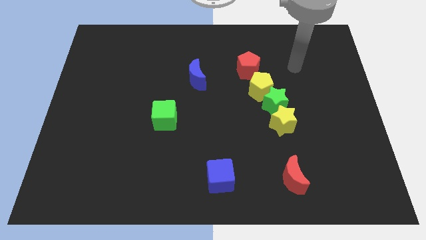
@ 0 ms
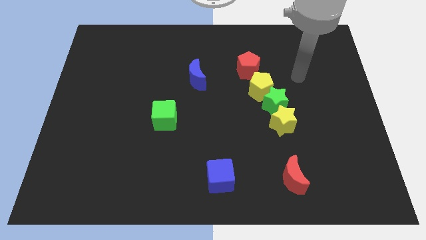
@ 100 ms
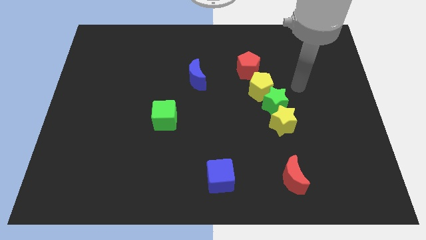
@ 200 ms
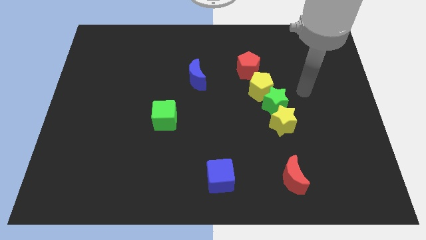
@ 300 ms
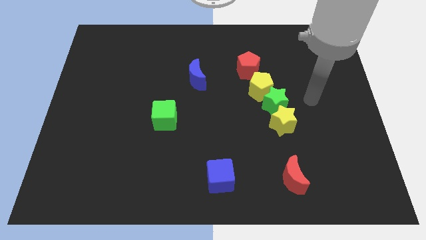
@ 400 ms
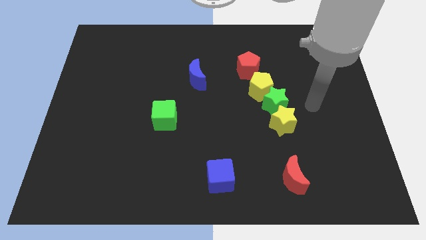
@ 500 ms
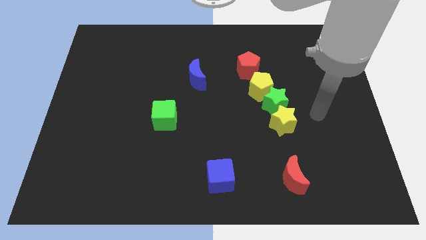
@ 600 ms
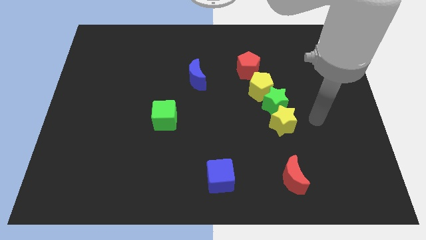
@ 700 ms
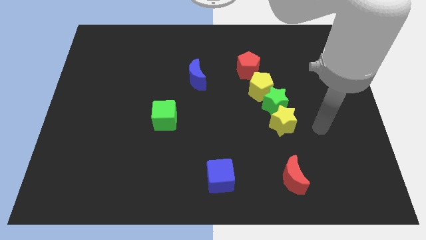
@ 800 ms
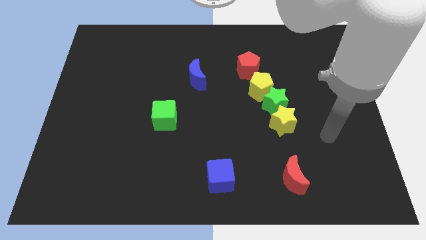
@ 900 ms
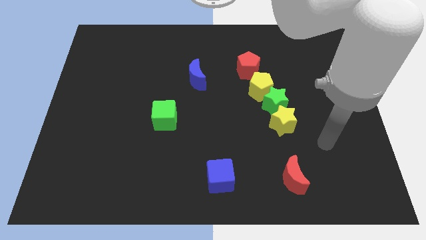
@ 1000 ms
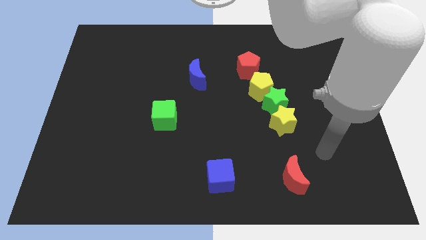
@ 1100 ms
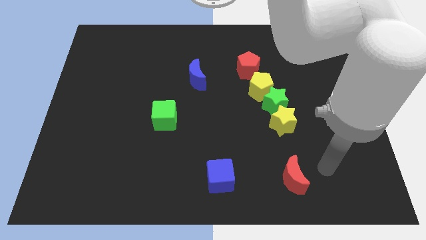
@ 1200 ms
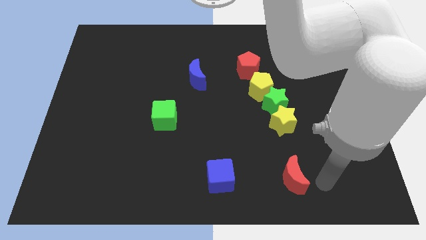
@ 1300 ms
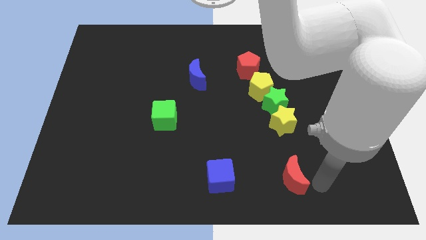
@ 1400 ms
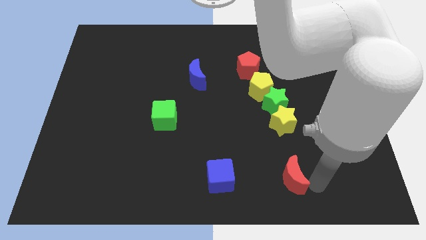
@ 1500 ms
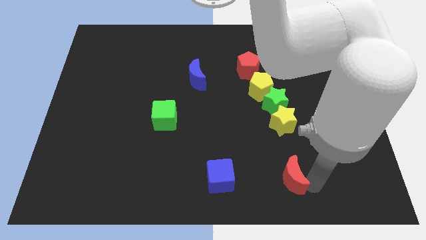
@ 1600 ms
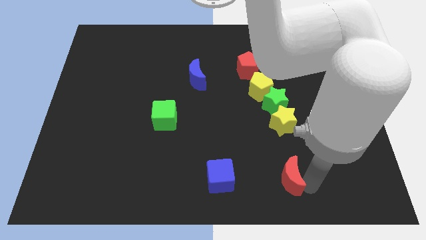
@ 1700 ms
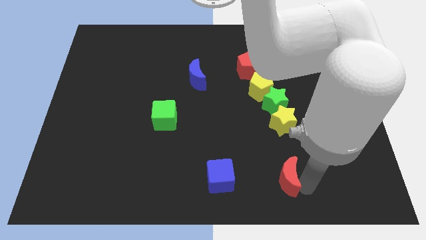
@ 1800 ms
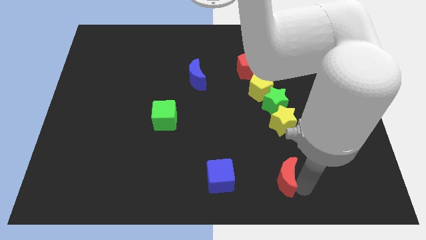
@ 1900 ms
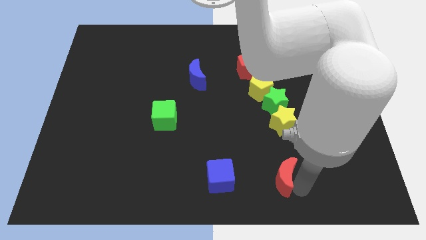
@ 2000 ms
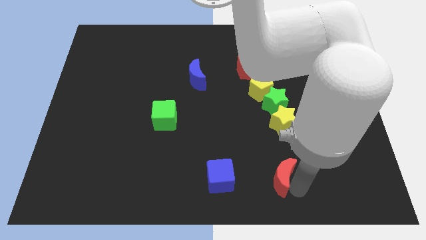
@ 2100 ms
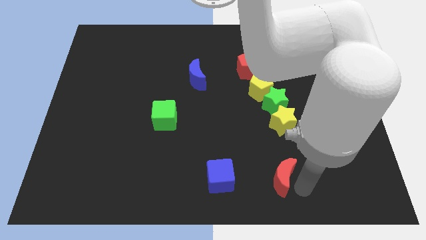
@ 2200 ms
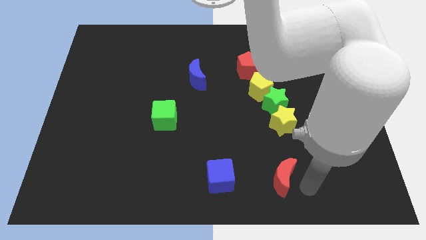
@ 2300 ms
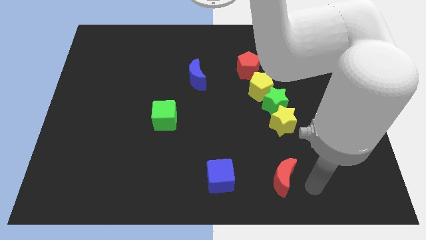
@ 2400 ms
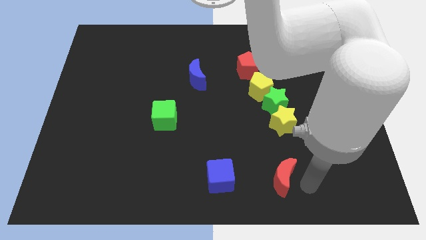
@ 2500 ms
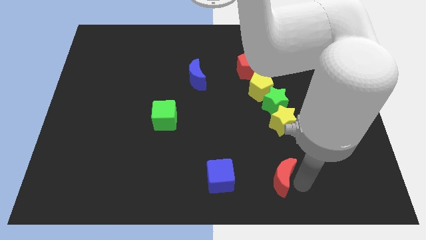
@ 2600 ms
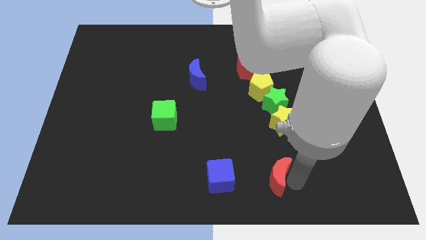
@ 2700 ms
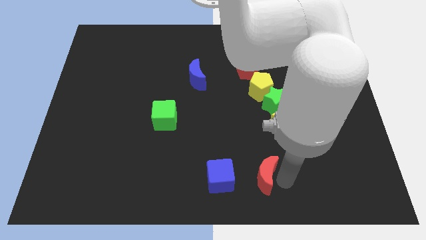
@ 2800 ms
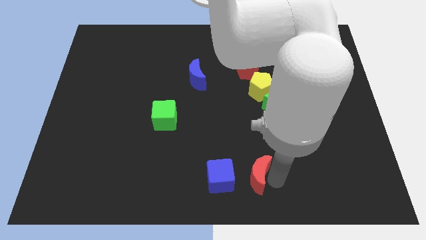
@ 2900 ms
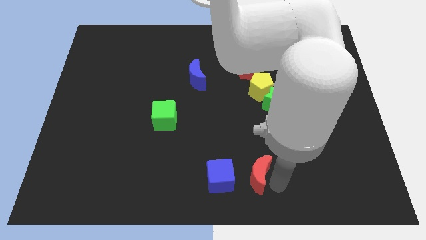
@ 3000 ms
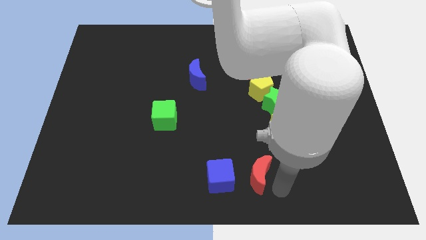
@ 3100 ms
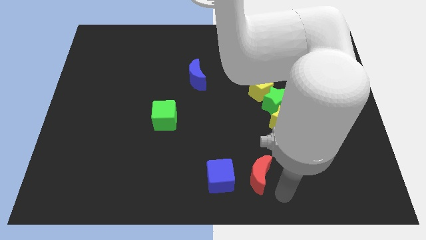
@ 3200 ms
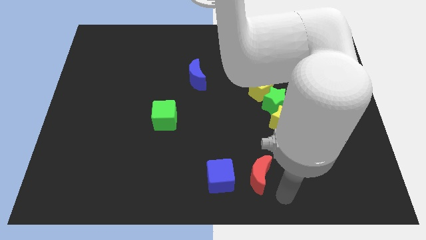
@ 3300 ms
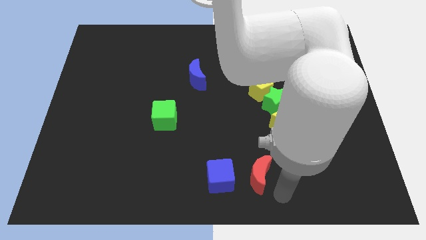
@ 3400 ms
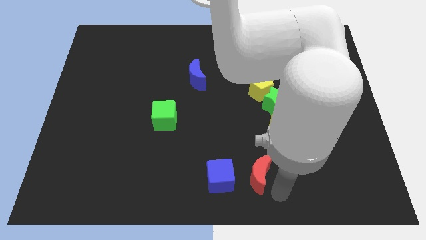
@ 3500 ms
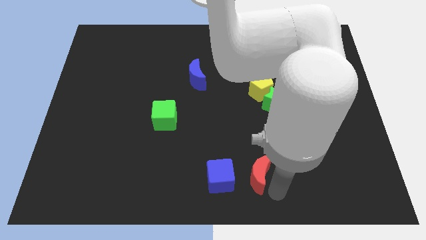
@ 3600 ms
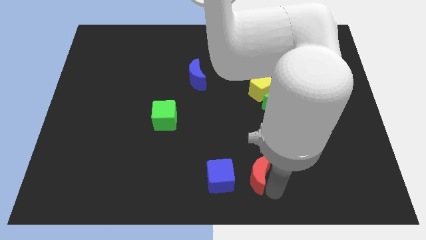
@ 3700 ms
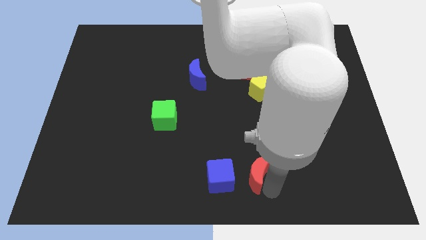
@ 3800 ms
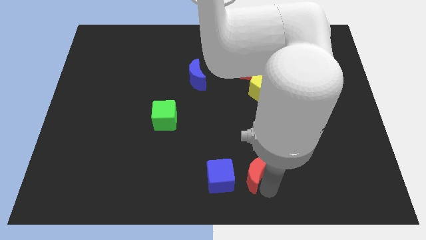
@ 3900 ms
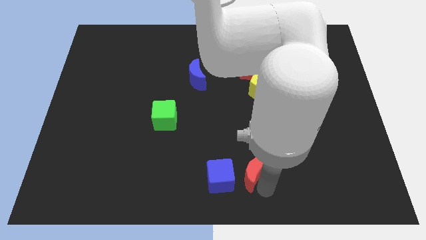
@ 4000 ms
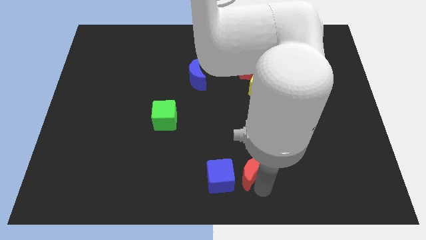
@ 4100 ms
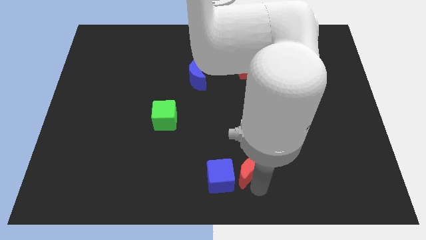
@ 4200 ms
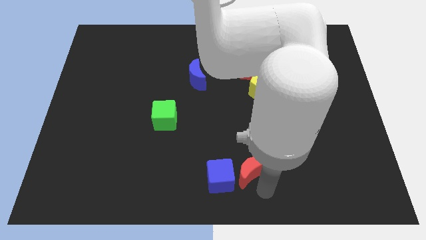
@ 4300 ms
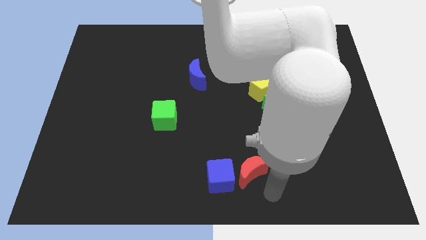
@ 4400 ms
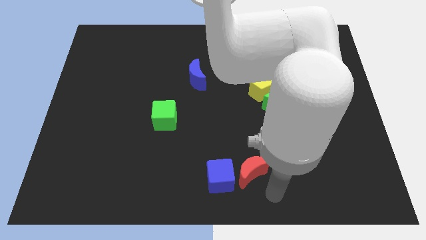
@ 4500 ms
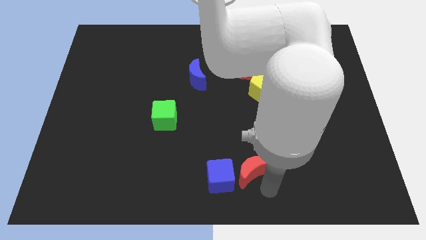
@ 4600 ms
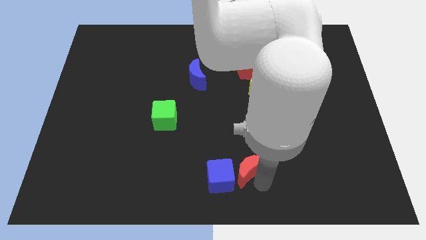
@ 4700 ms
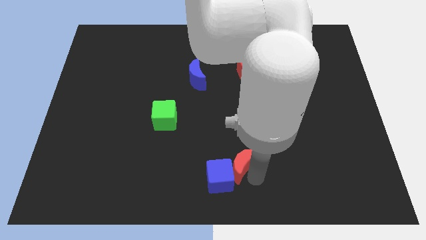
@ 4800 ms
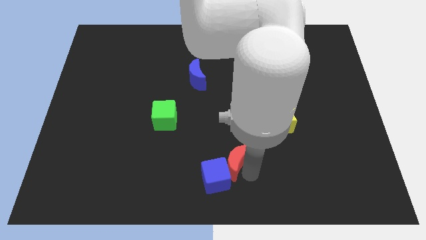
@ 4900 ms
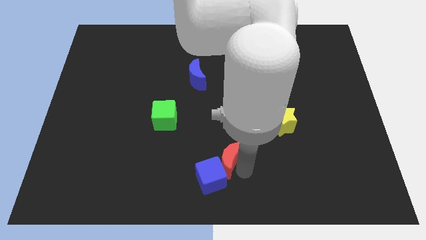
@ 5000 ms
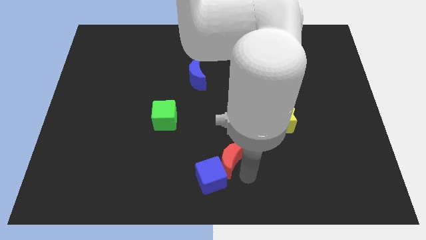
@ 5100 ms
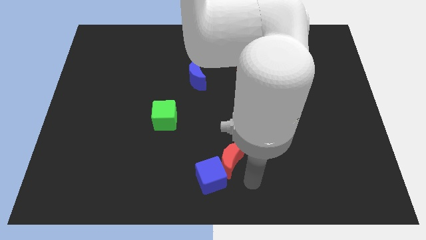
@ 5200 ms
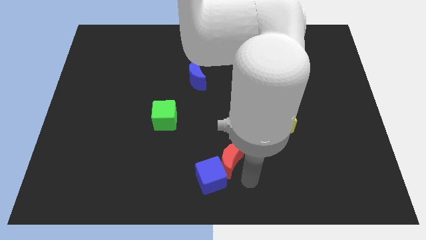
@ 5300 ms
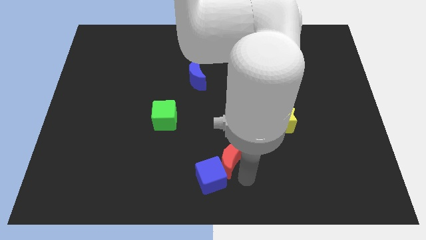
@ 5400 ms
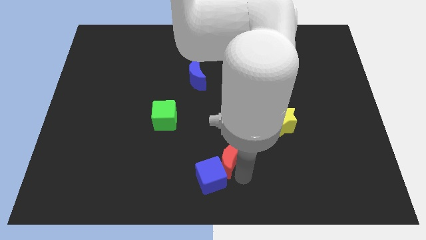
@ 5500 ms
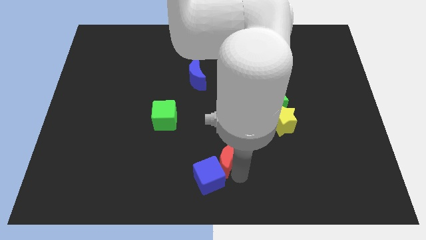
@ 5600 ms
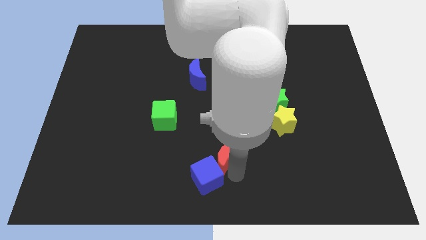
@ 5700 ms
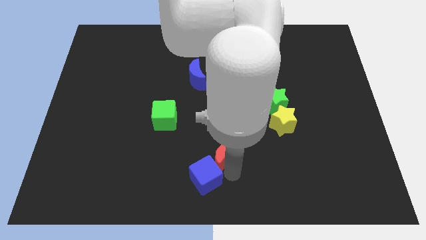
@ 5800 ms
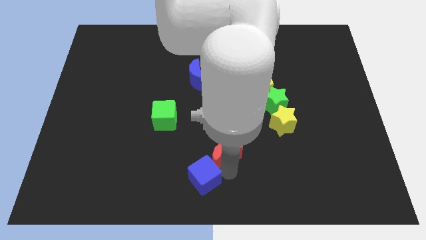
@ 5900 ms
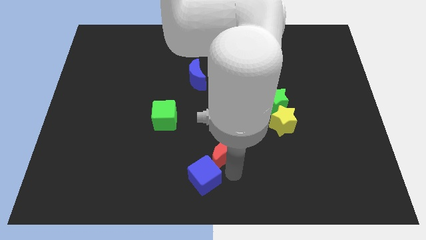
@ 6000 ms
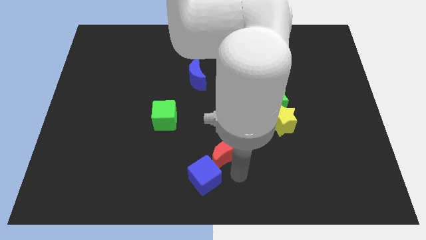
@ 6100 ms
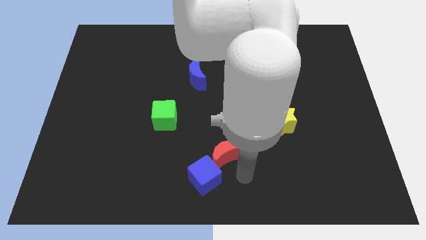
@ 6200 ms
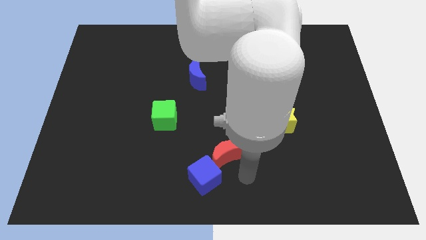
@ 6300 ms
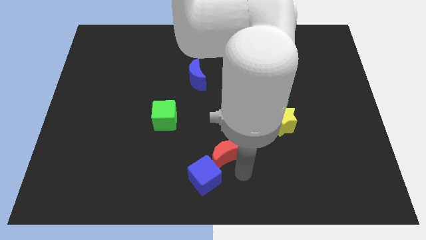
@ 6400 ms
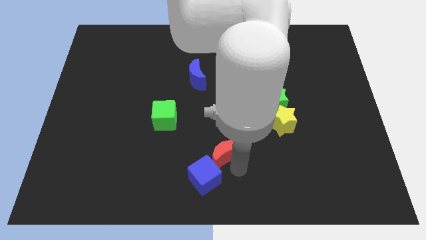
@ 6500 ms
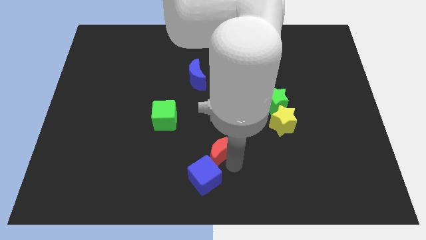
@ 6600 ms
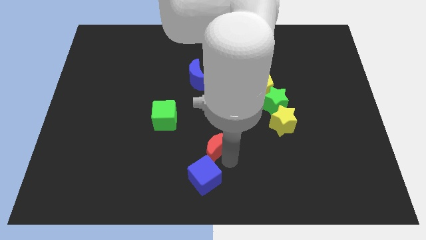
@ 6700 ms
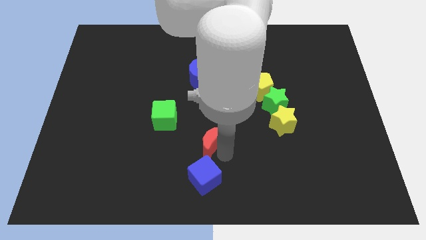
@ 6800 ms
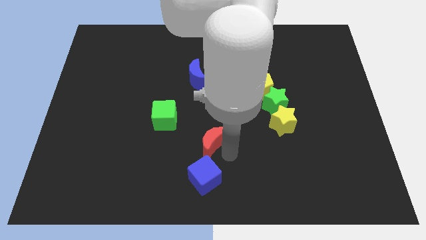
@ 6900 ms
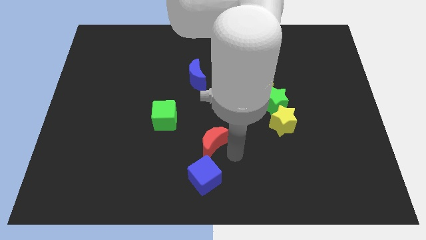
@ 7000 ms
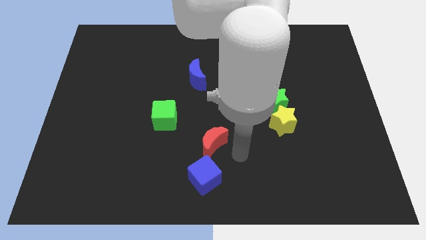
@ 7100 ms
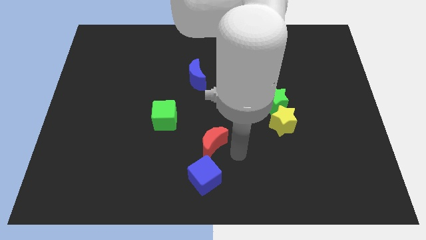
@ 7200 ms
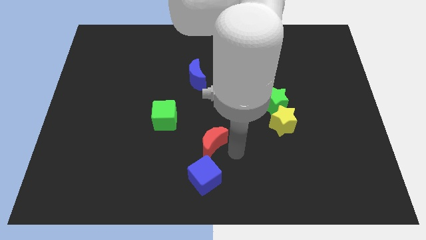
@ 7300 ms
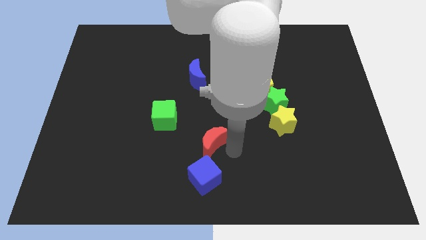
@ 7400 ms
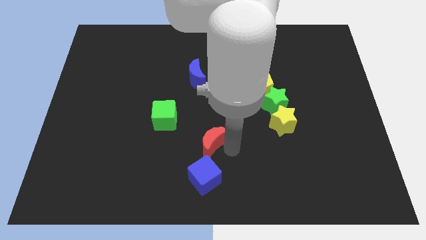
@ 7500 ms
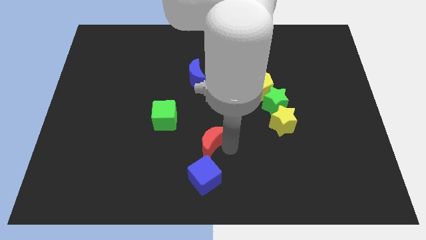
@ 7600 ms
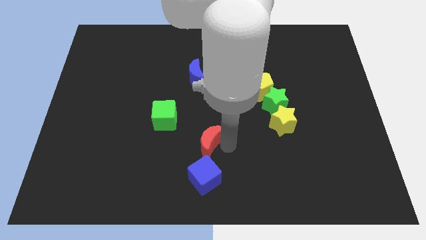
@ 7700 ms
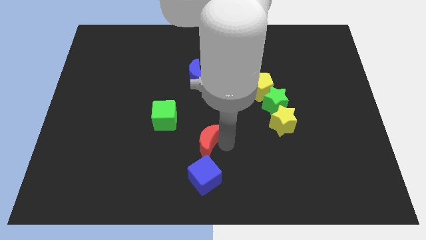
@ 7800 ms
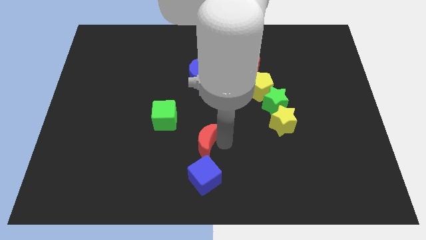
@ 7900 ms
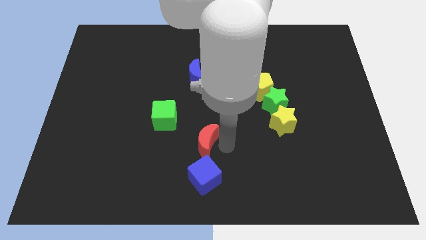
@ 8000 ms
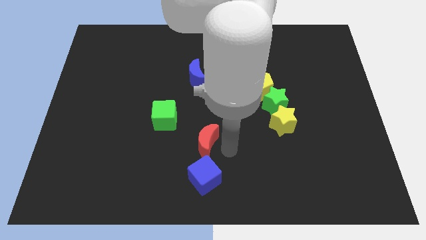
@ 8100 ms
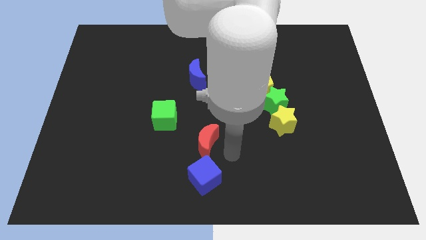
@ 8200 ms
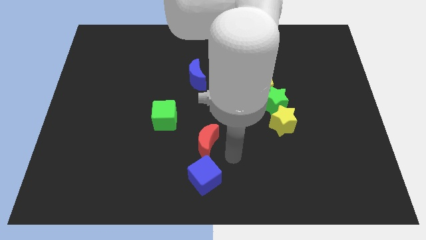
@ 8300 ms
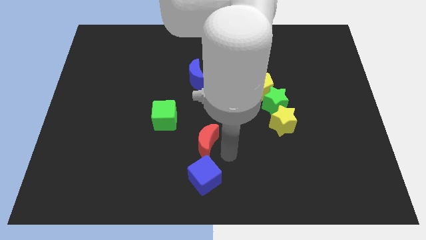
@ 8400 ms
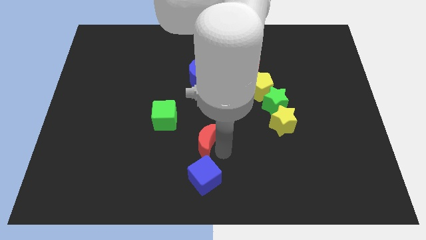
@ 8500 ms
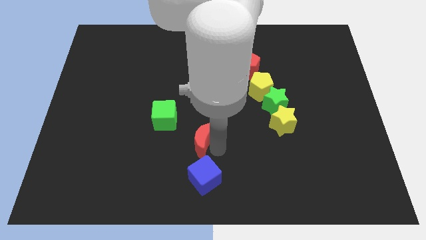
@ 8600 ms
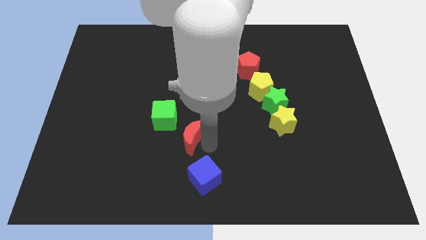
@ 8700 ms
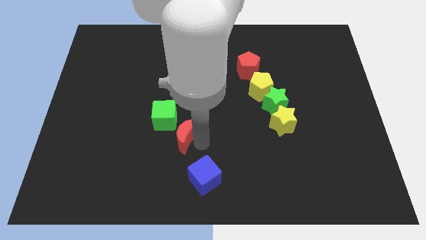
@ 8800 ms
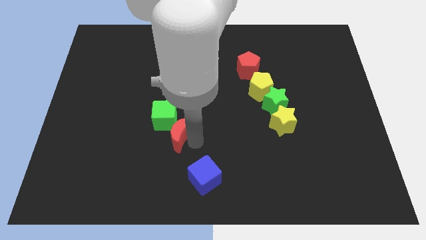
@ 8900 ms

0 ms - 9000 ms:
move the red moon towards the green cube
